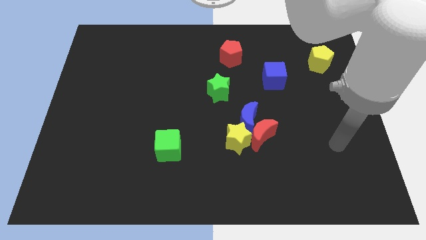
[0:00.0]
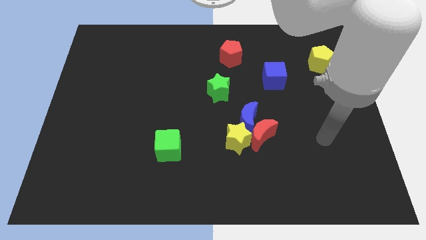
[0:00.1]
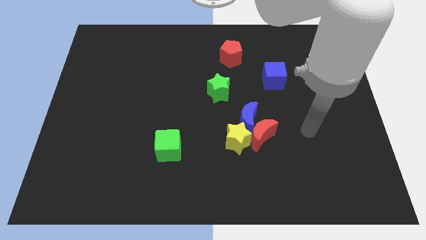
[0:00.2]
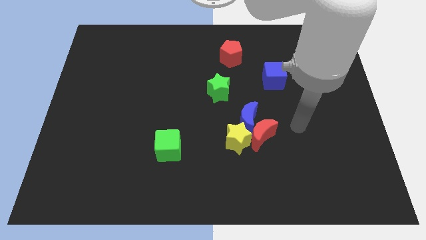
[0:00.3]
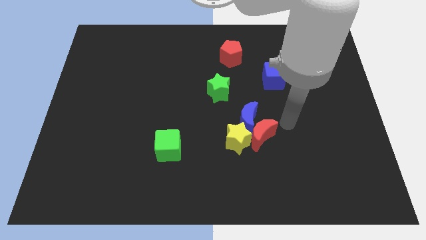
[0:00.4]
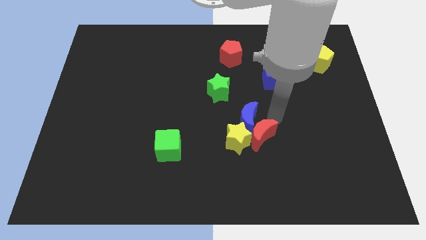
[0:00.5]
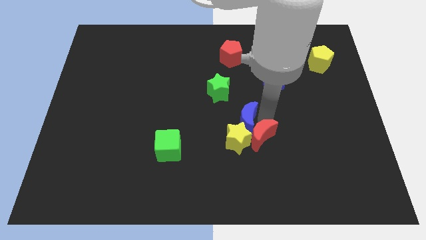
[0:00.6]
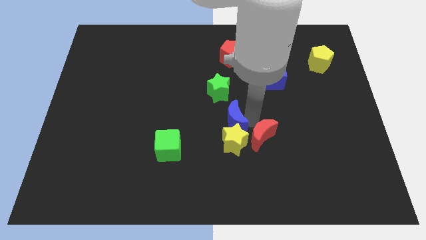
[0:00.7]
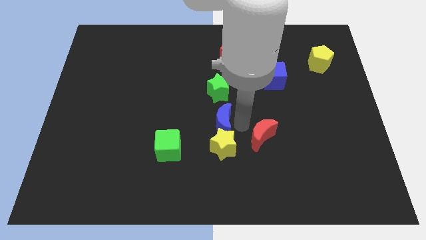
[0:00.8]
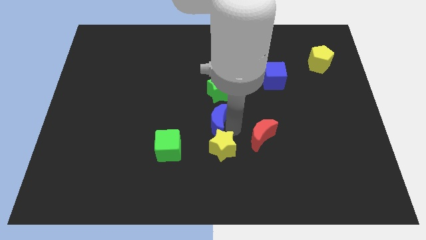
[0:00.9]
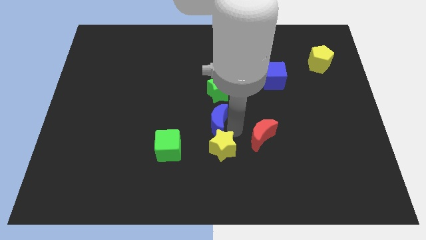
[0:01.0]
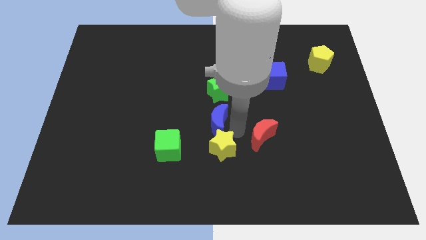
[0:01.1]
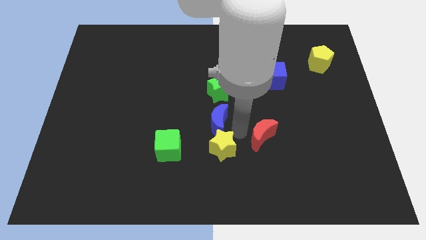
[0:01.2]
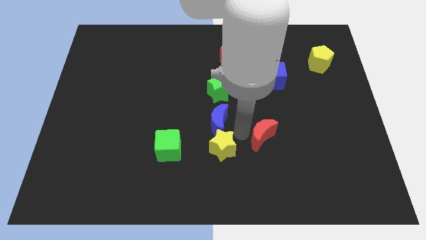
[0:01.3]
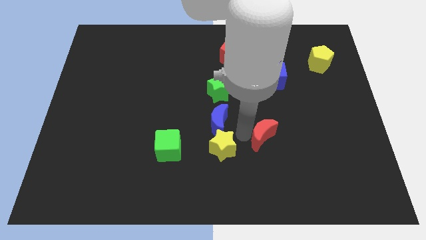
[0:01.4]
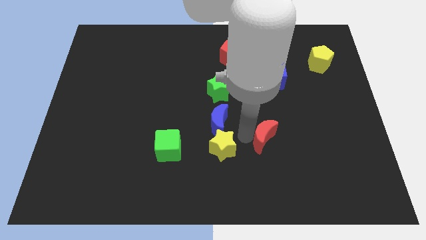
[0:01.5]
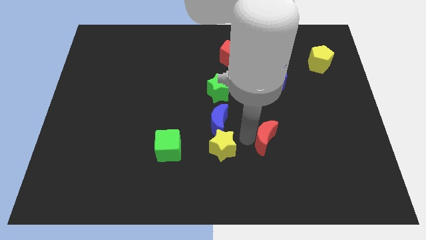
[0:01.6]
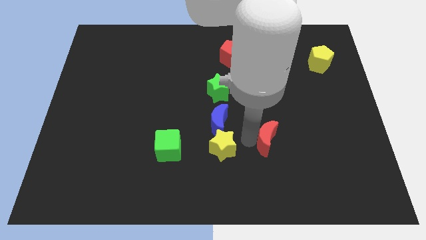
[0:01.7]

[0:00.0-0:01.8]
separate the red moon from the blue moon and yellow star

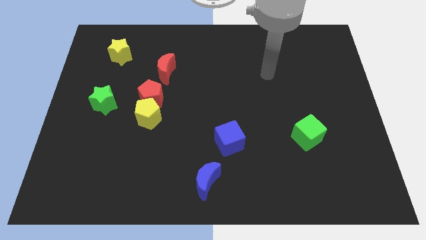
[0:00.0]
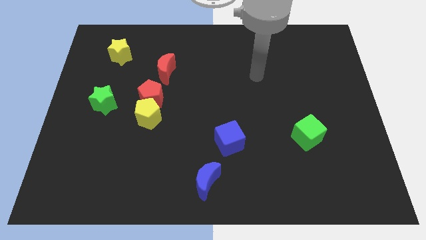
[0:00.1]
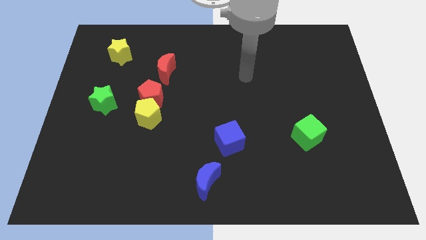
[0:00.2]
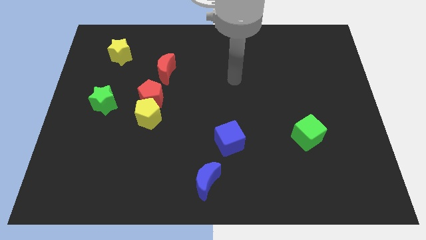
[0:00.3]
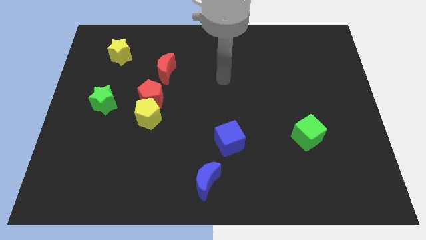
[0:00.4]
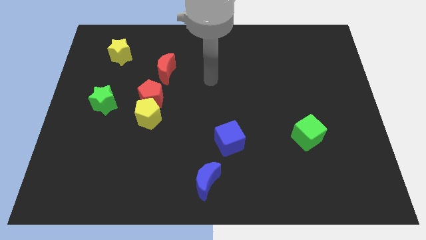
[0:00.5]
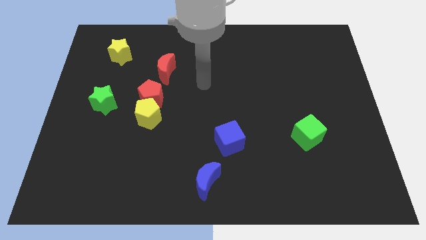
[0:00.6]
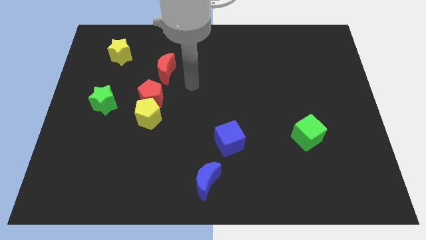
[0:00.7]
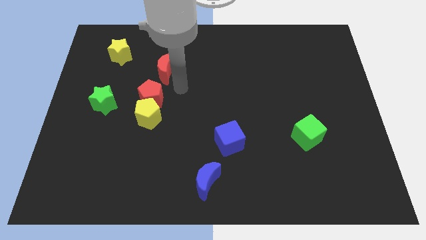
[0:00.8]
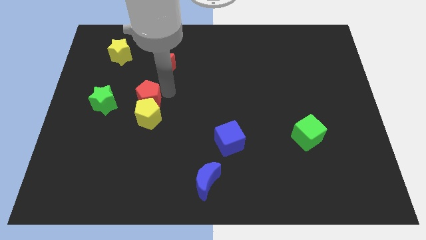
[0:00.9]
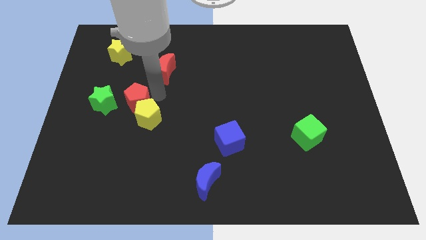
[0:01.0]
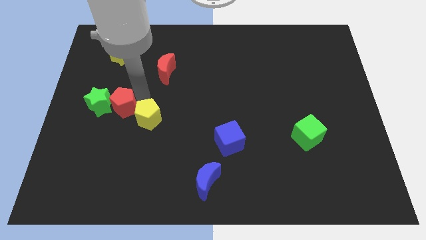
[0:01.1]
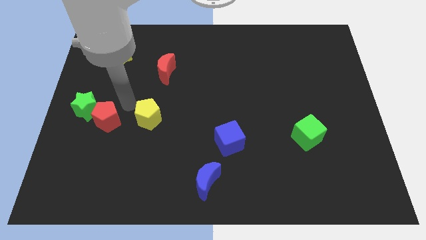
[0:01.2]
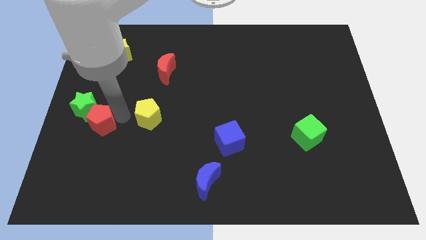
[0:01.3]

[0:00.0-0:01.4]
move the yellow pentagon away from the red pentagon

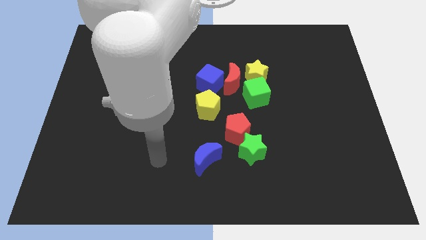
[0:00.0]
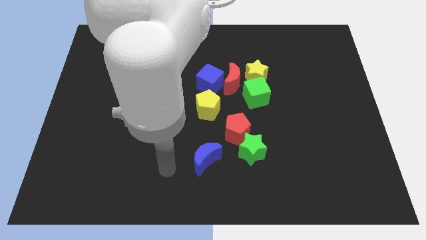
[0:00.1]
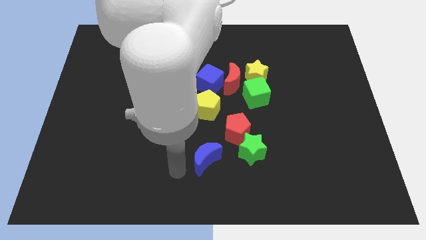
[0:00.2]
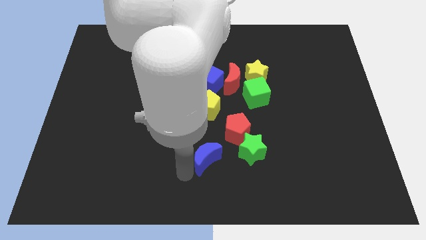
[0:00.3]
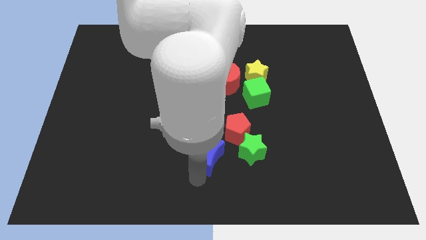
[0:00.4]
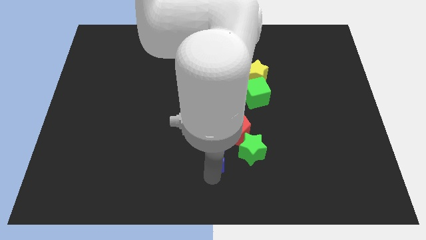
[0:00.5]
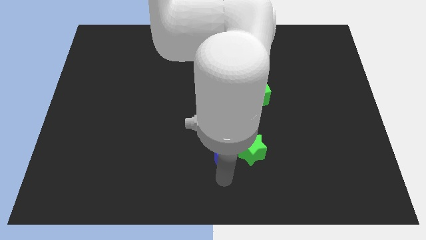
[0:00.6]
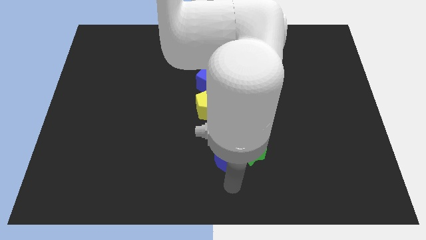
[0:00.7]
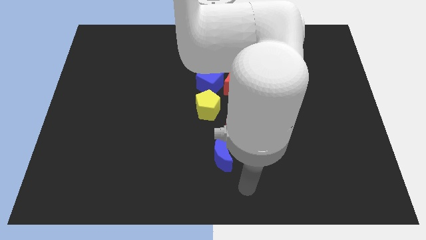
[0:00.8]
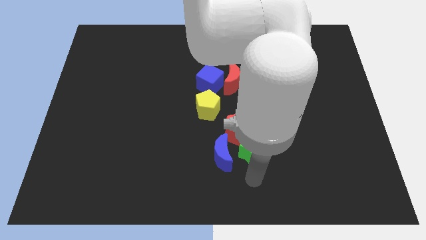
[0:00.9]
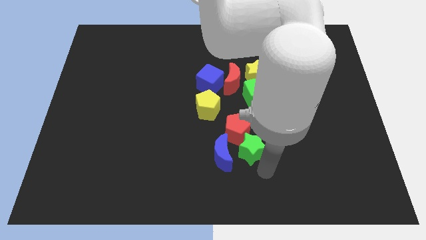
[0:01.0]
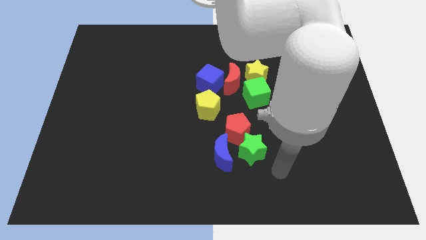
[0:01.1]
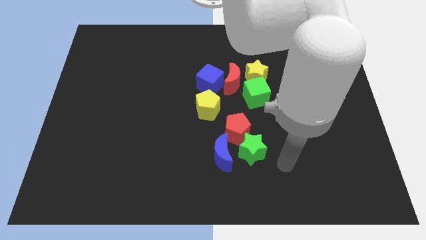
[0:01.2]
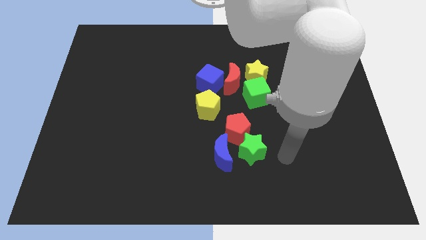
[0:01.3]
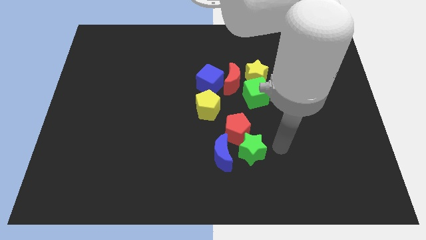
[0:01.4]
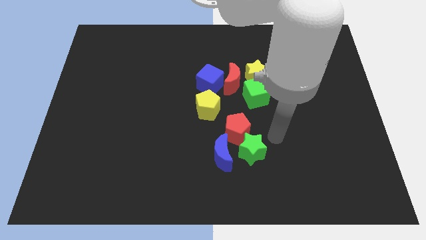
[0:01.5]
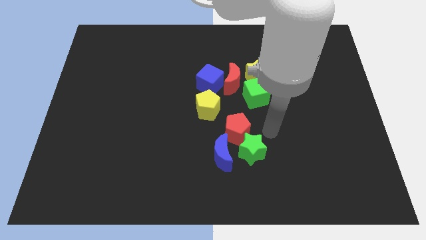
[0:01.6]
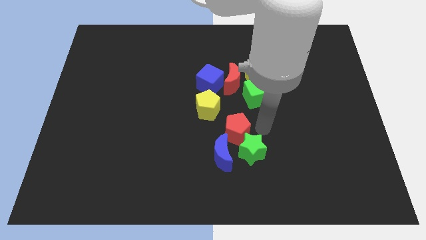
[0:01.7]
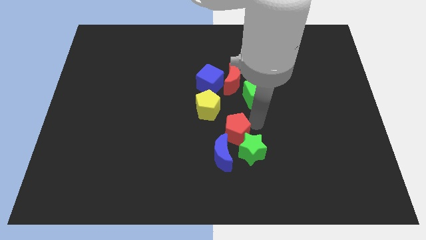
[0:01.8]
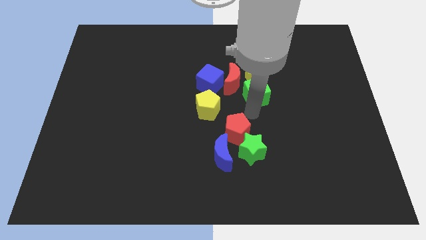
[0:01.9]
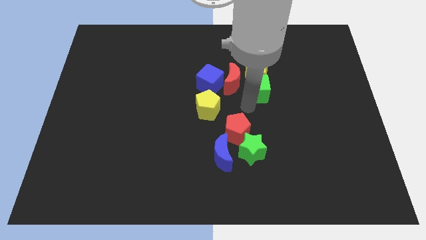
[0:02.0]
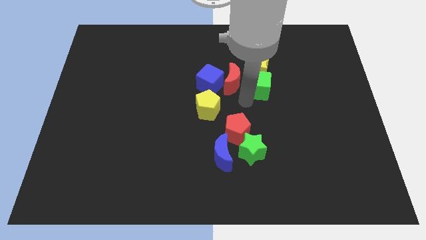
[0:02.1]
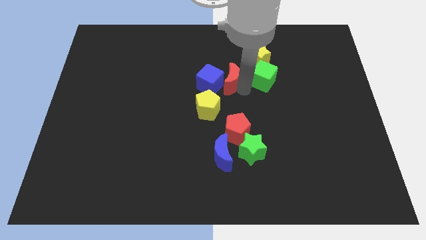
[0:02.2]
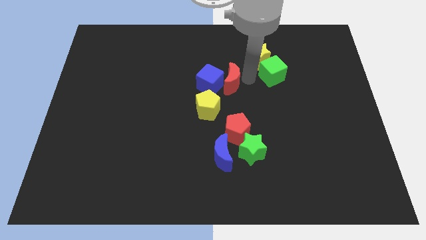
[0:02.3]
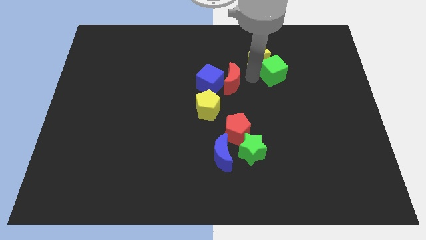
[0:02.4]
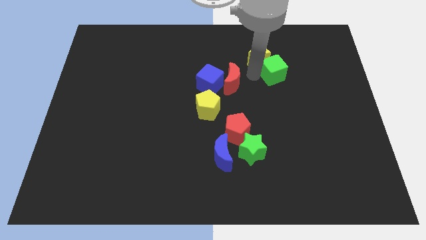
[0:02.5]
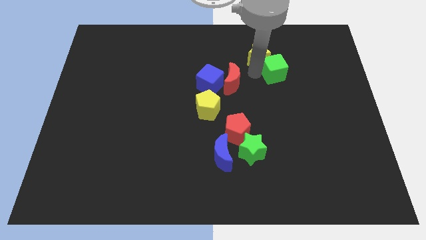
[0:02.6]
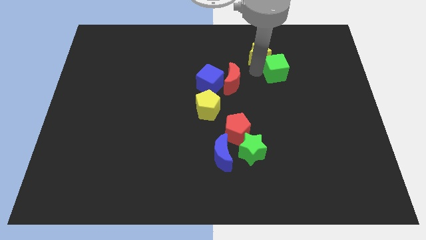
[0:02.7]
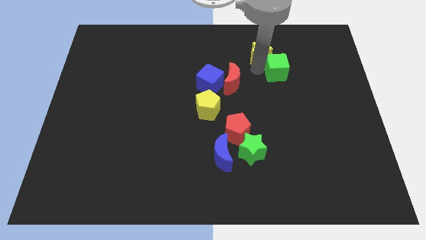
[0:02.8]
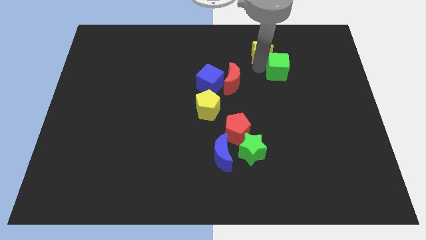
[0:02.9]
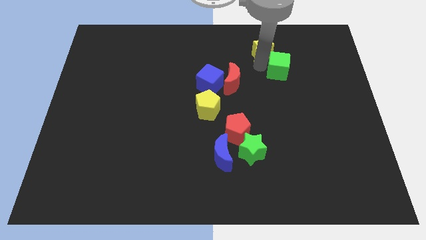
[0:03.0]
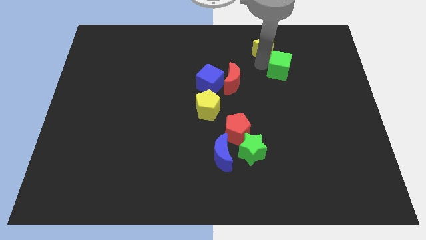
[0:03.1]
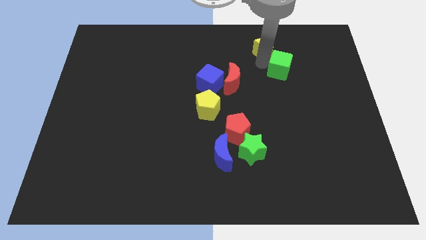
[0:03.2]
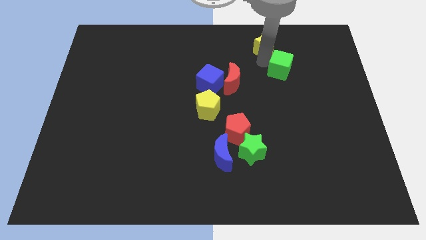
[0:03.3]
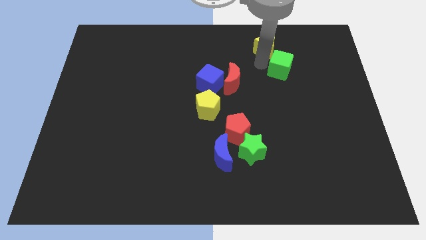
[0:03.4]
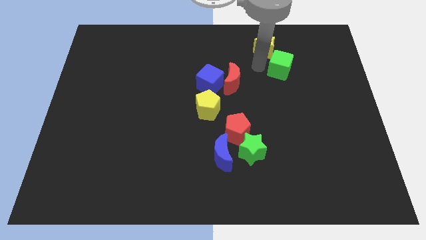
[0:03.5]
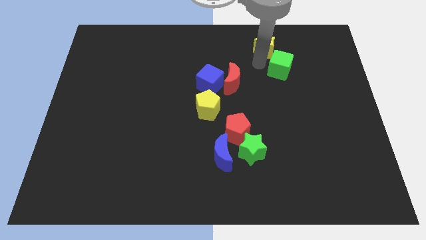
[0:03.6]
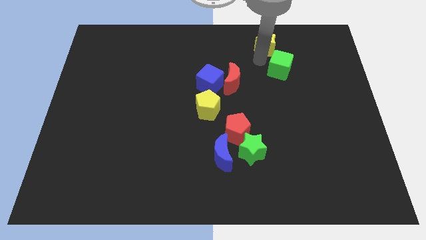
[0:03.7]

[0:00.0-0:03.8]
separate the yellow star from the red moon and green cube

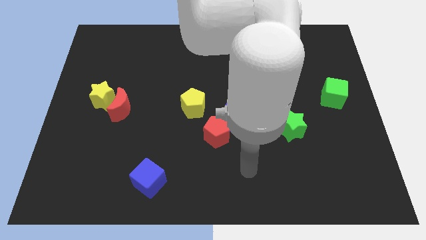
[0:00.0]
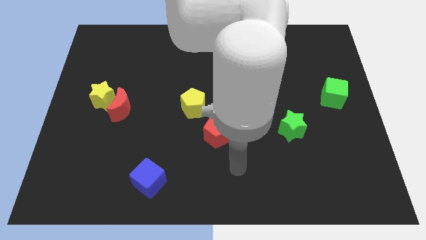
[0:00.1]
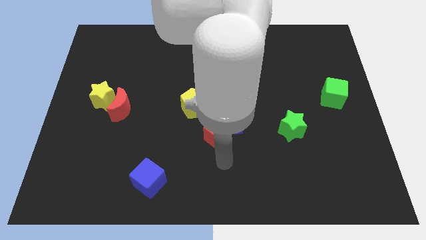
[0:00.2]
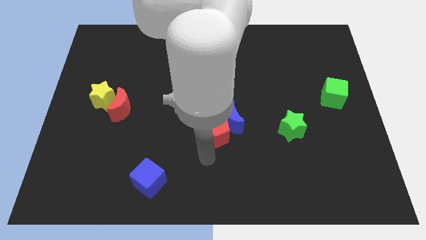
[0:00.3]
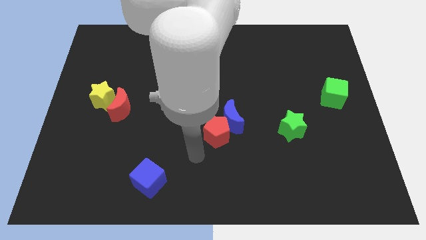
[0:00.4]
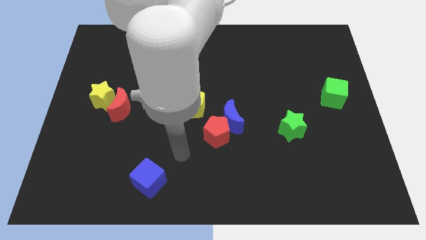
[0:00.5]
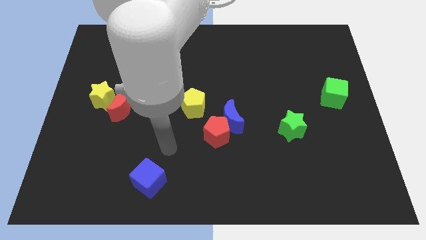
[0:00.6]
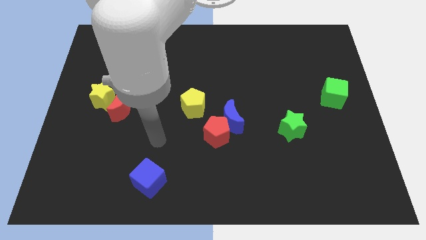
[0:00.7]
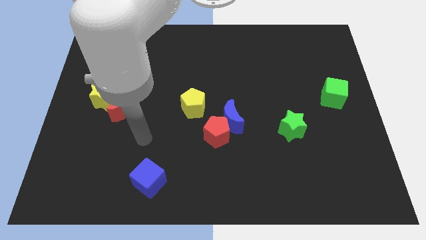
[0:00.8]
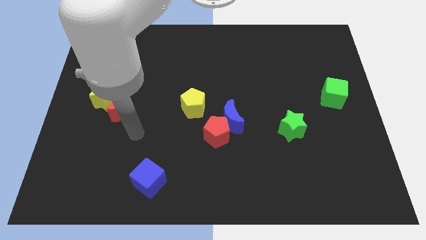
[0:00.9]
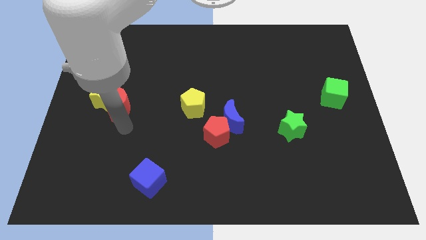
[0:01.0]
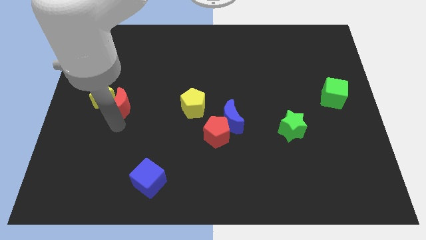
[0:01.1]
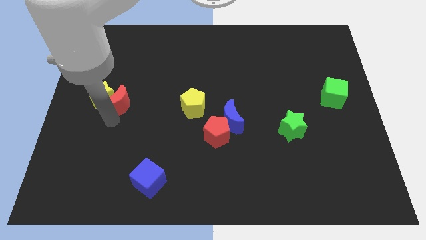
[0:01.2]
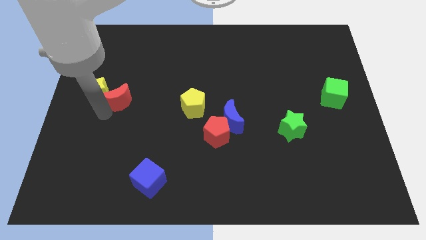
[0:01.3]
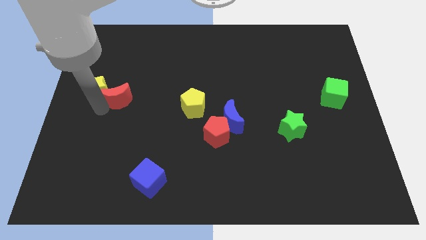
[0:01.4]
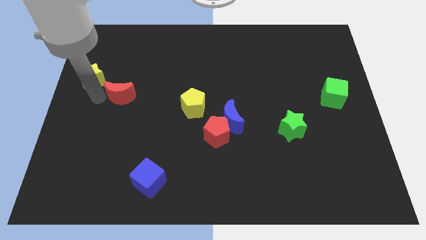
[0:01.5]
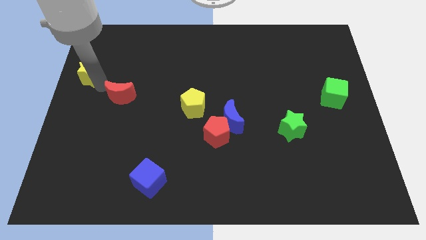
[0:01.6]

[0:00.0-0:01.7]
move the red moon away from the yellow star

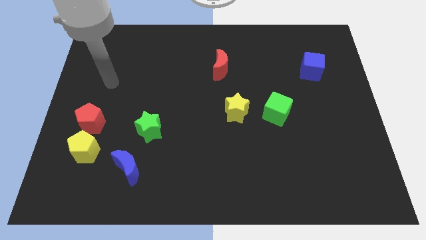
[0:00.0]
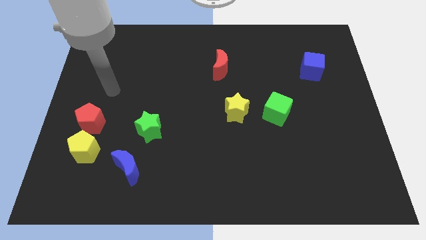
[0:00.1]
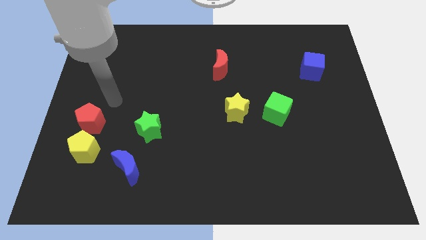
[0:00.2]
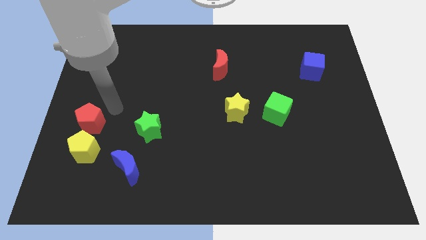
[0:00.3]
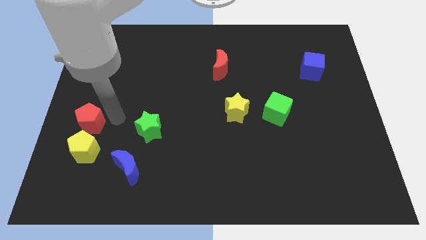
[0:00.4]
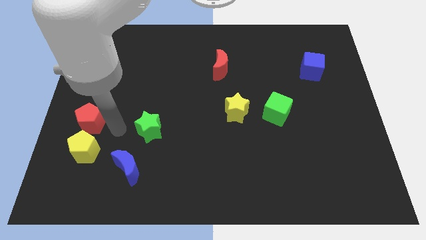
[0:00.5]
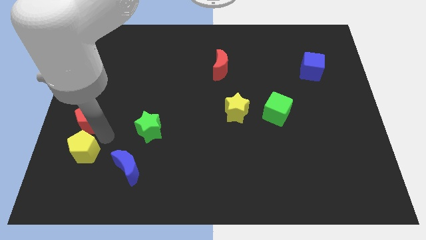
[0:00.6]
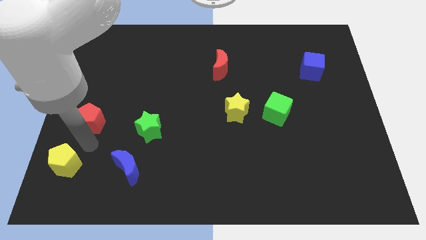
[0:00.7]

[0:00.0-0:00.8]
separate the red pentagon from the yellow pentagon
